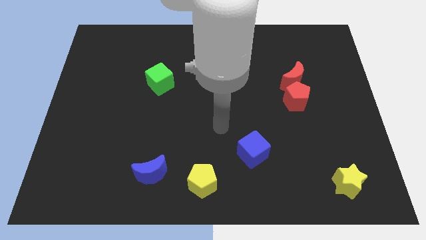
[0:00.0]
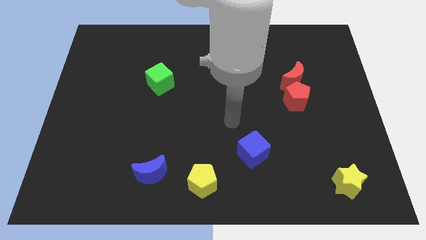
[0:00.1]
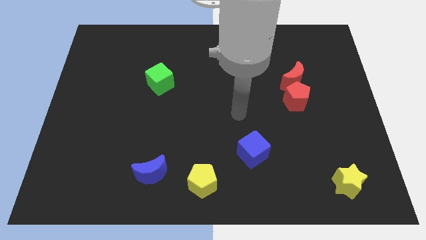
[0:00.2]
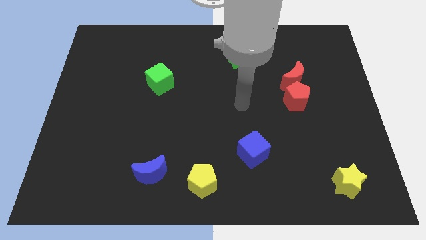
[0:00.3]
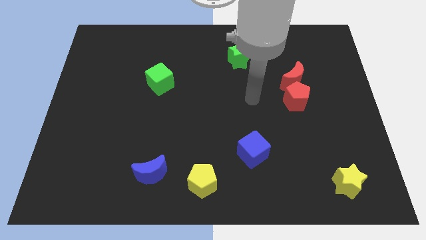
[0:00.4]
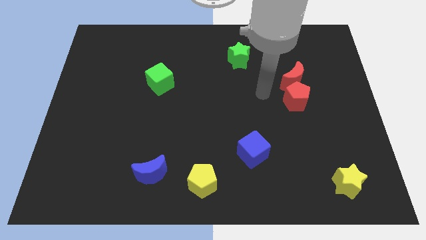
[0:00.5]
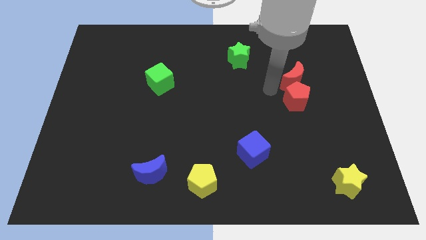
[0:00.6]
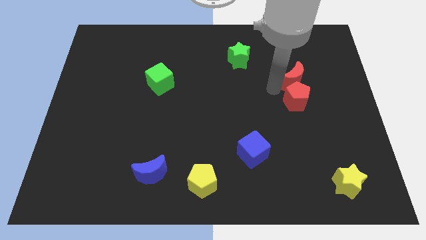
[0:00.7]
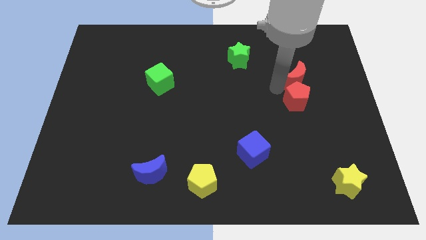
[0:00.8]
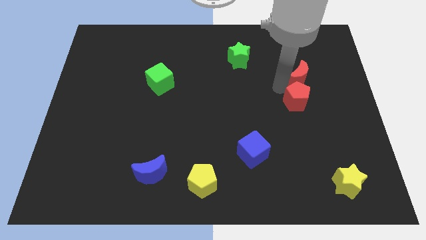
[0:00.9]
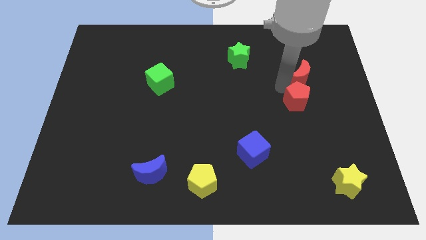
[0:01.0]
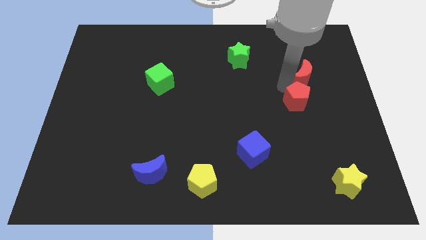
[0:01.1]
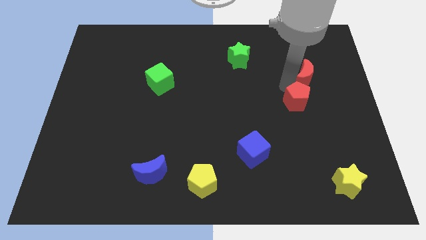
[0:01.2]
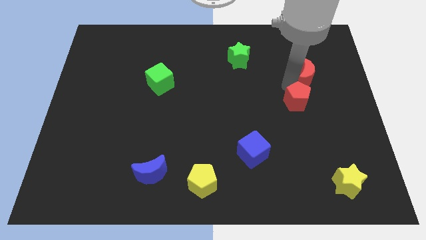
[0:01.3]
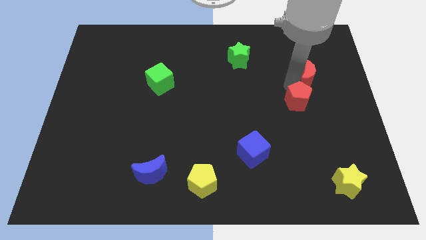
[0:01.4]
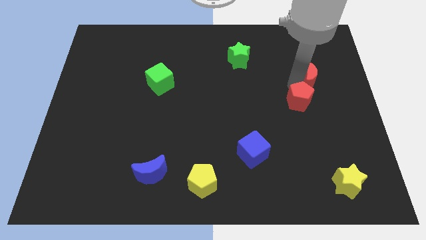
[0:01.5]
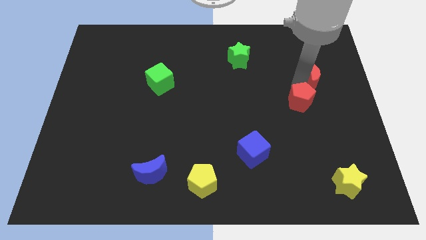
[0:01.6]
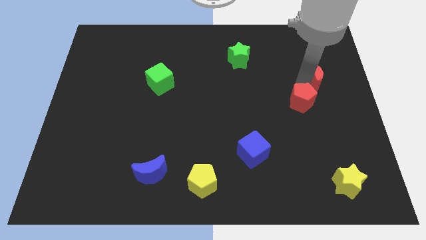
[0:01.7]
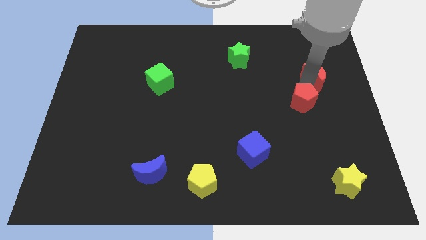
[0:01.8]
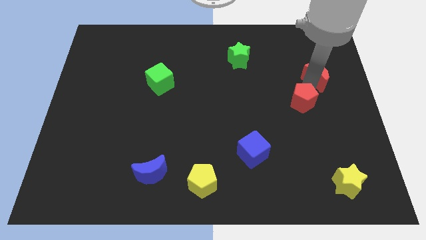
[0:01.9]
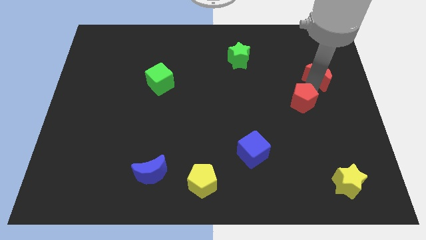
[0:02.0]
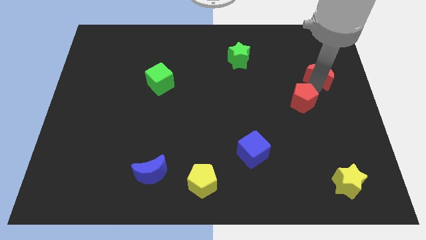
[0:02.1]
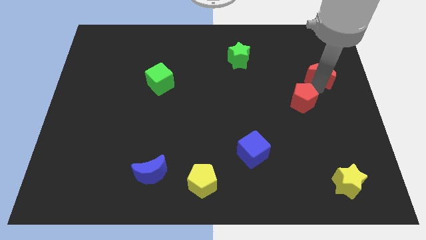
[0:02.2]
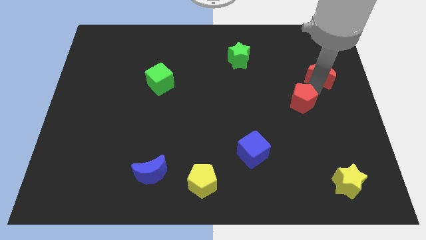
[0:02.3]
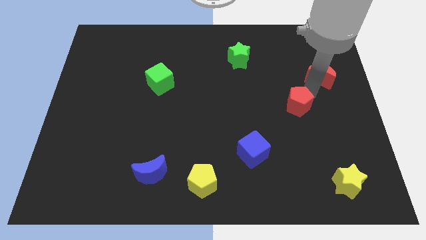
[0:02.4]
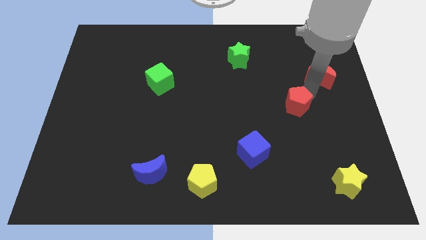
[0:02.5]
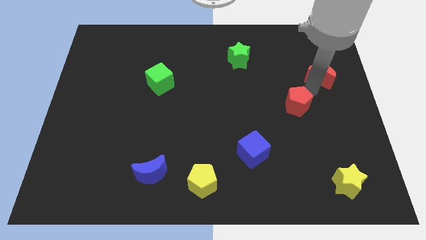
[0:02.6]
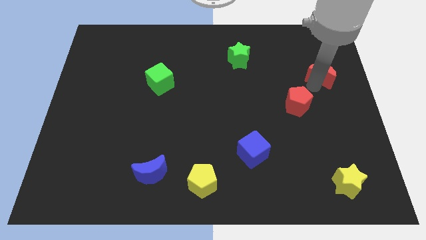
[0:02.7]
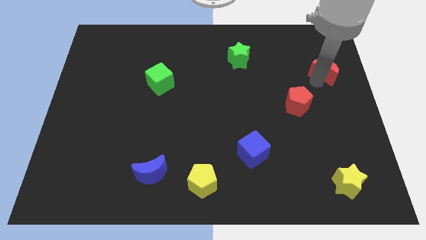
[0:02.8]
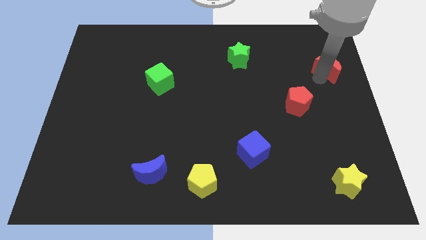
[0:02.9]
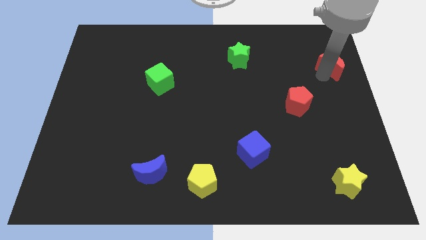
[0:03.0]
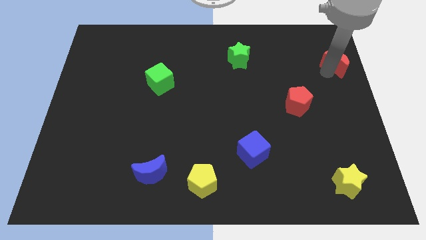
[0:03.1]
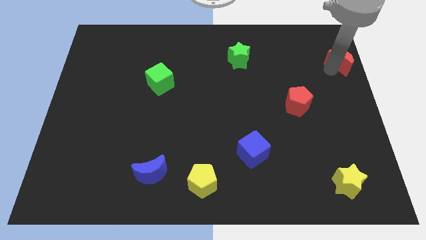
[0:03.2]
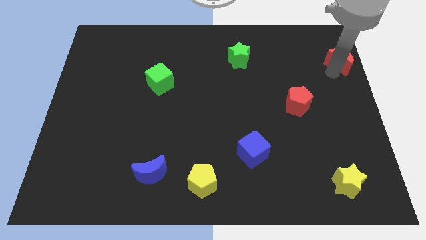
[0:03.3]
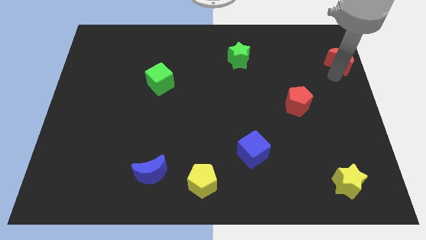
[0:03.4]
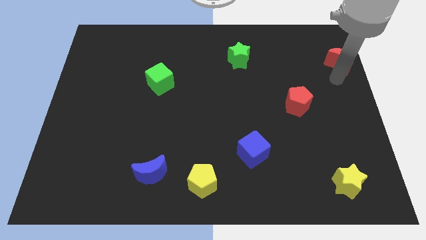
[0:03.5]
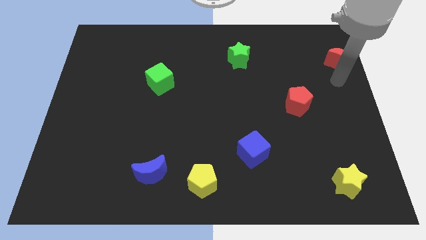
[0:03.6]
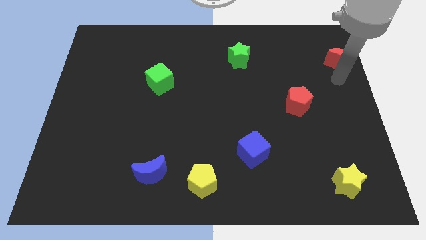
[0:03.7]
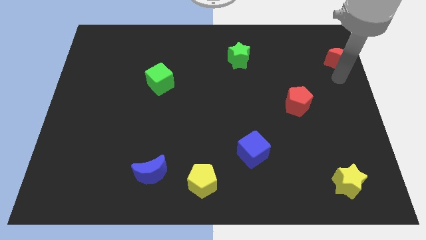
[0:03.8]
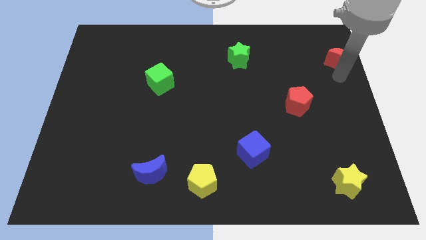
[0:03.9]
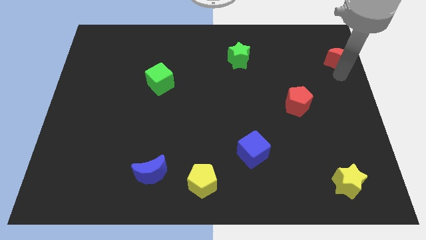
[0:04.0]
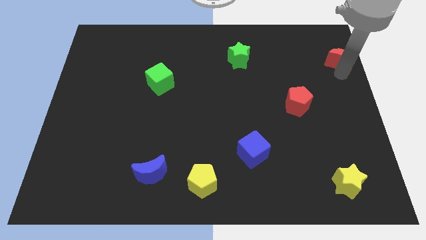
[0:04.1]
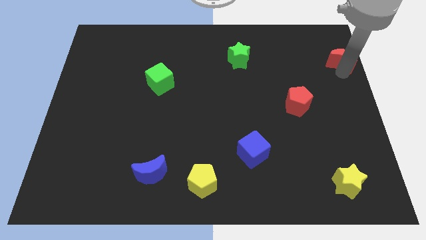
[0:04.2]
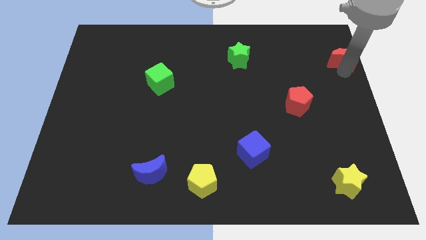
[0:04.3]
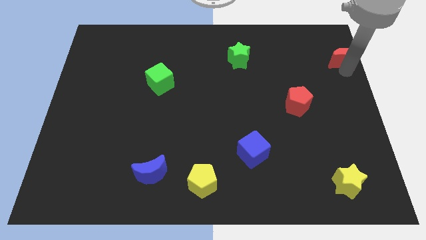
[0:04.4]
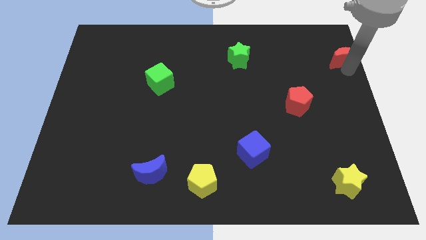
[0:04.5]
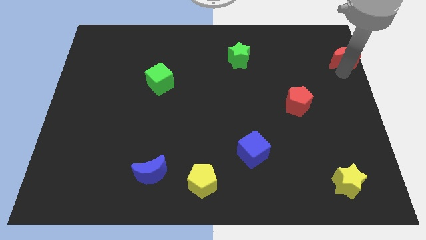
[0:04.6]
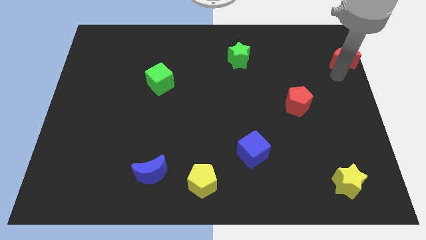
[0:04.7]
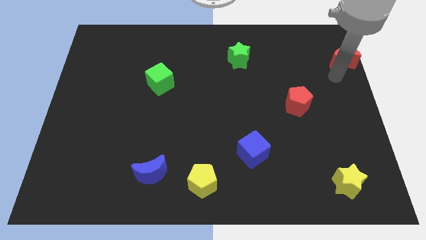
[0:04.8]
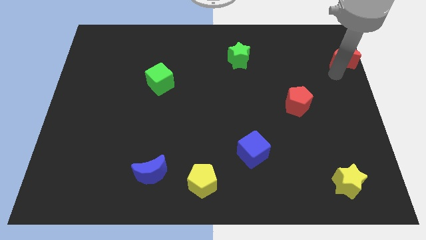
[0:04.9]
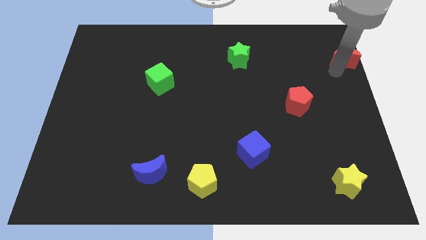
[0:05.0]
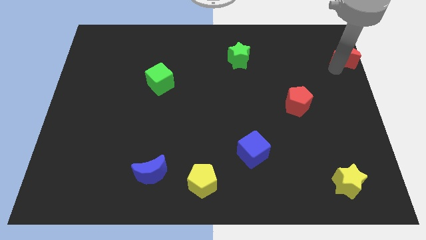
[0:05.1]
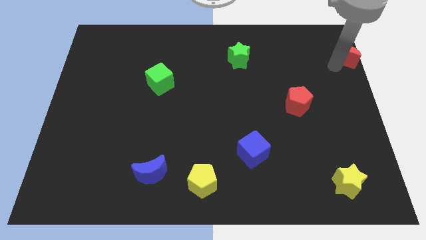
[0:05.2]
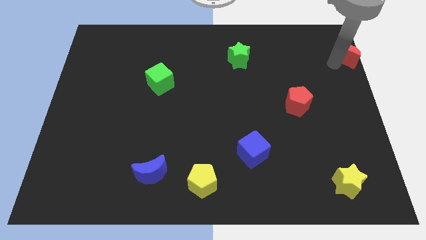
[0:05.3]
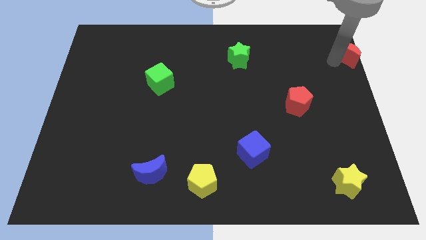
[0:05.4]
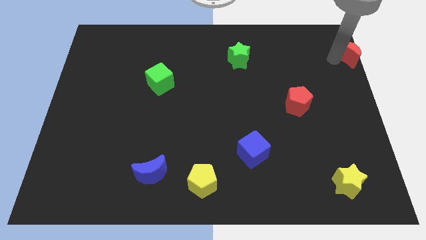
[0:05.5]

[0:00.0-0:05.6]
push the red moon to the top right corner

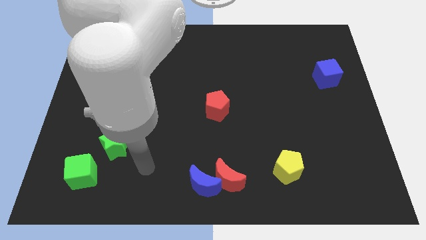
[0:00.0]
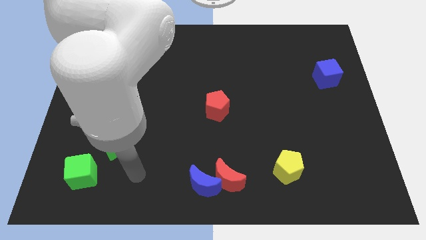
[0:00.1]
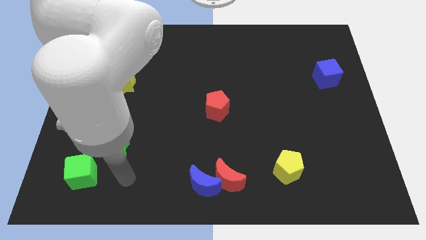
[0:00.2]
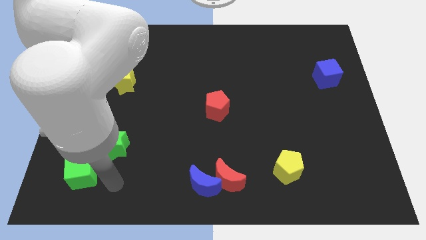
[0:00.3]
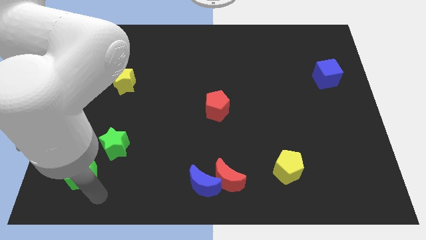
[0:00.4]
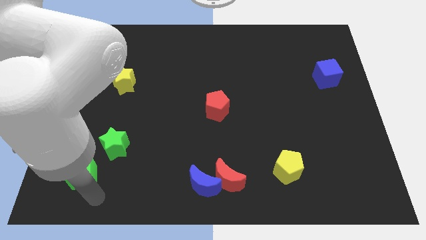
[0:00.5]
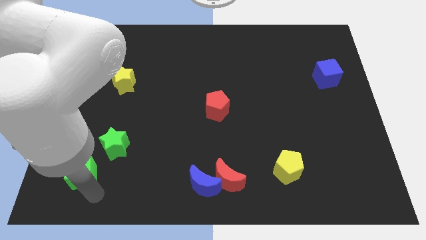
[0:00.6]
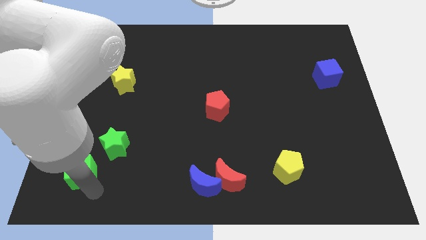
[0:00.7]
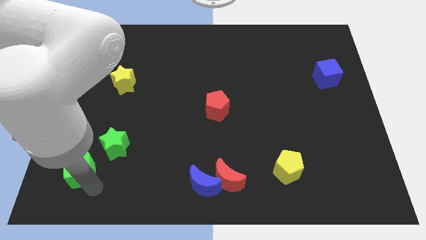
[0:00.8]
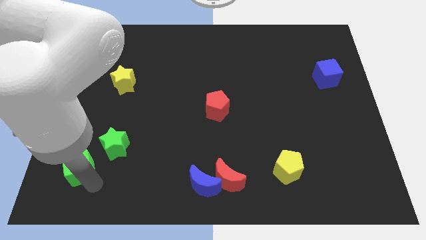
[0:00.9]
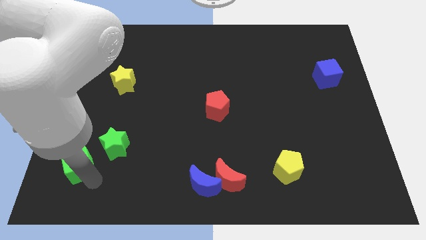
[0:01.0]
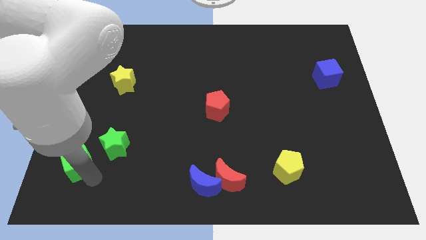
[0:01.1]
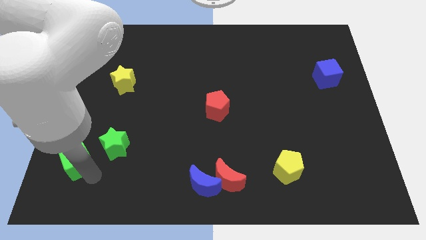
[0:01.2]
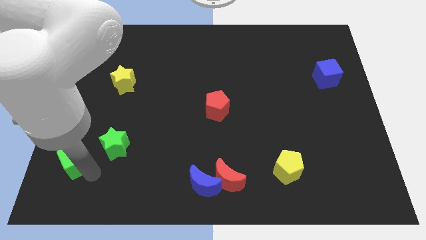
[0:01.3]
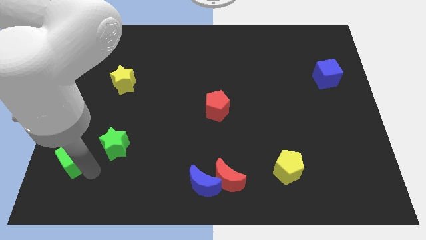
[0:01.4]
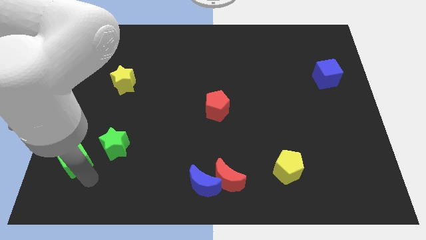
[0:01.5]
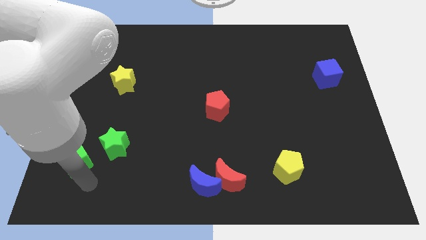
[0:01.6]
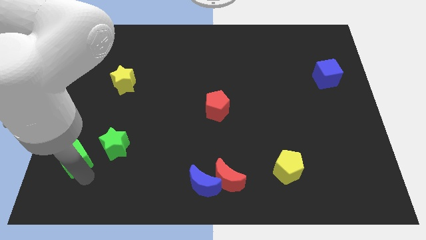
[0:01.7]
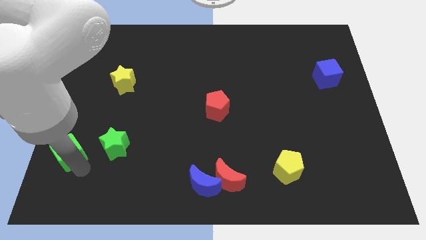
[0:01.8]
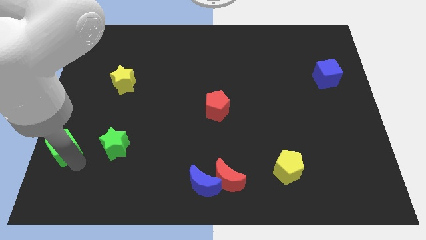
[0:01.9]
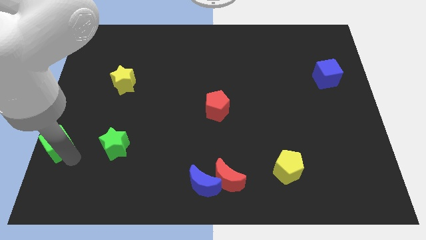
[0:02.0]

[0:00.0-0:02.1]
move the green cube to the left side of the board

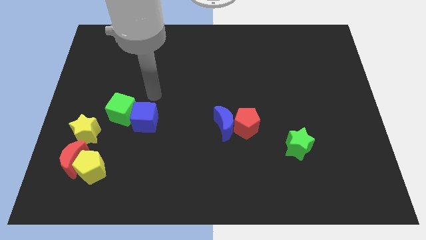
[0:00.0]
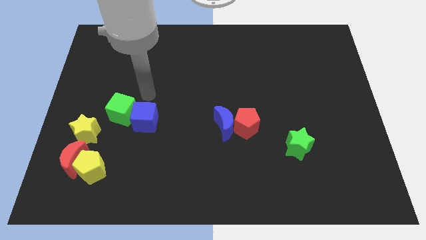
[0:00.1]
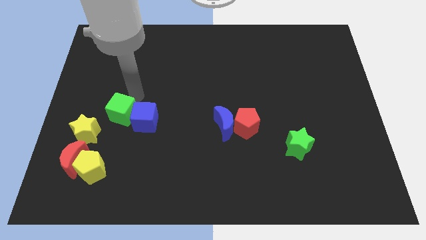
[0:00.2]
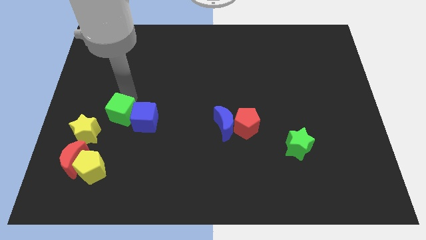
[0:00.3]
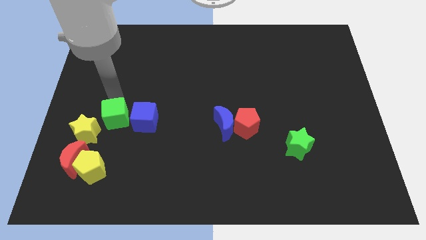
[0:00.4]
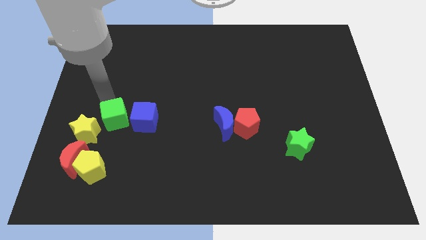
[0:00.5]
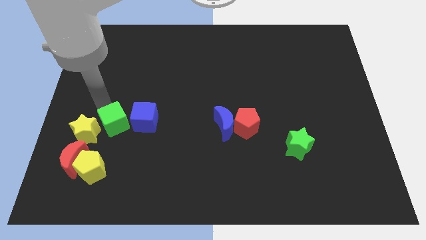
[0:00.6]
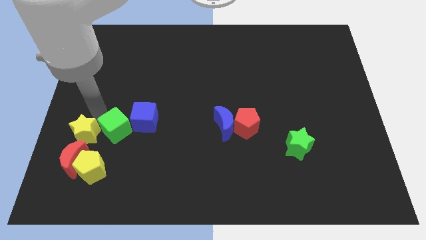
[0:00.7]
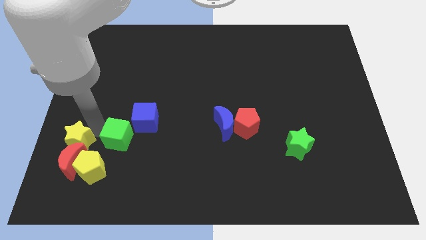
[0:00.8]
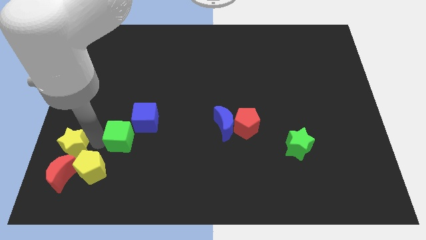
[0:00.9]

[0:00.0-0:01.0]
move the red moon to the bottom left of the board
